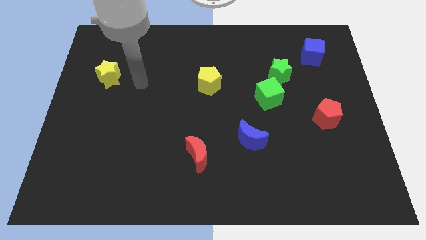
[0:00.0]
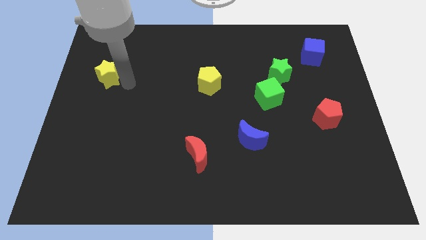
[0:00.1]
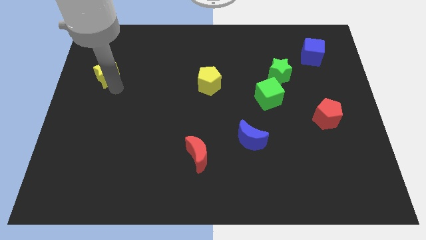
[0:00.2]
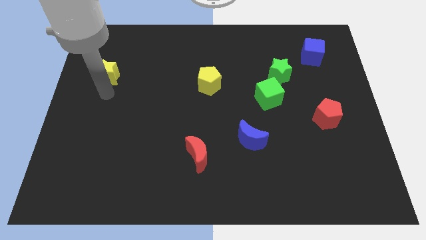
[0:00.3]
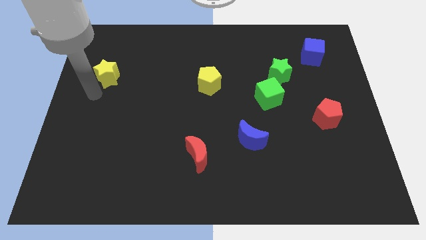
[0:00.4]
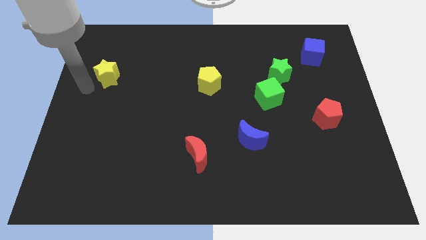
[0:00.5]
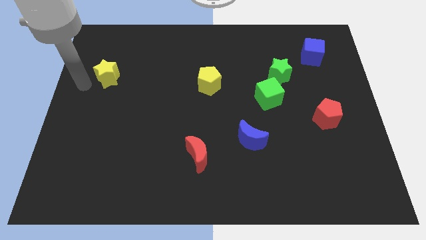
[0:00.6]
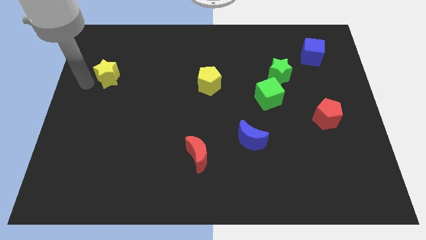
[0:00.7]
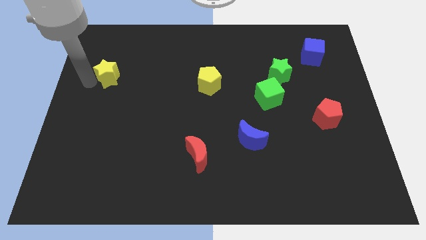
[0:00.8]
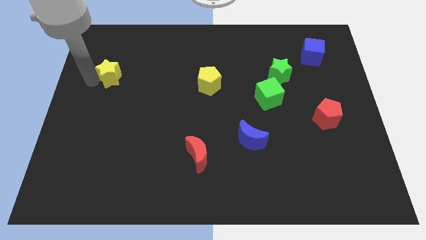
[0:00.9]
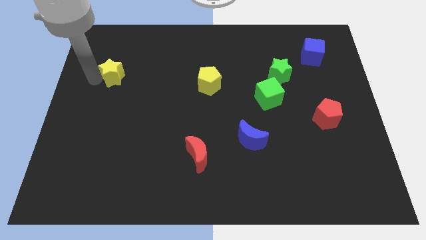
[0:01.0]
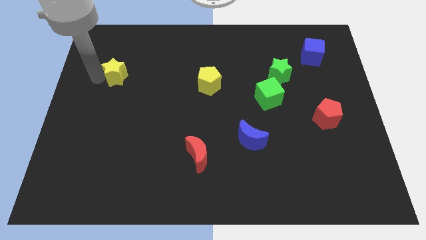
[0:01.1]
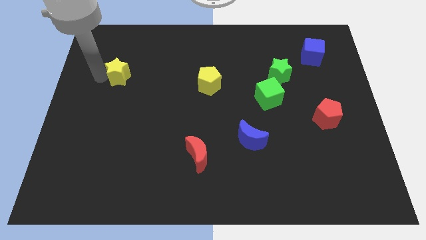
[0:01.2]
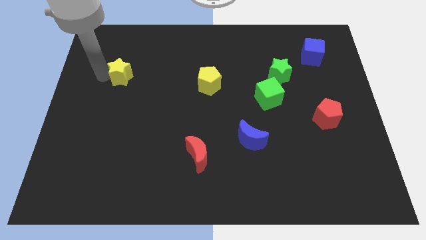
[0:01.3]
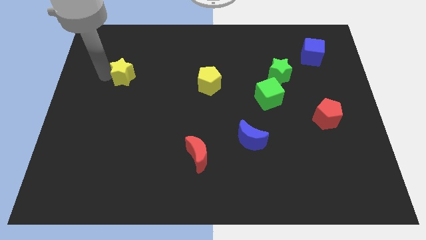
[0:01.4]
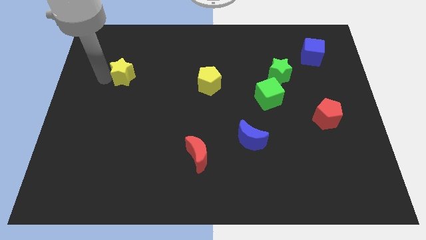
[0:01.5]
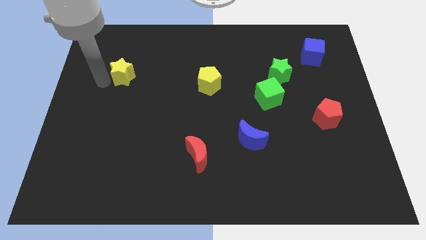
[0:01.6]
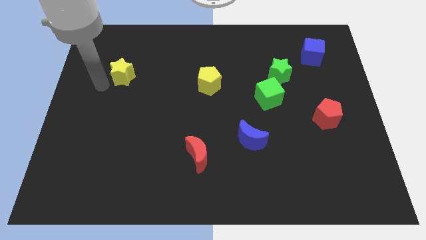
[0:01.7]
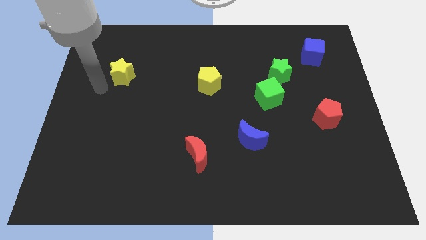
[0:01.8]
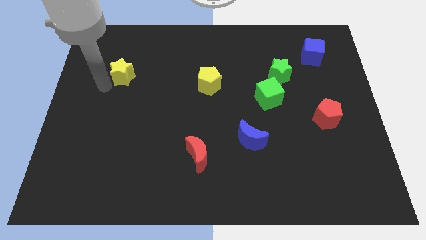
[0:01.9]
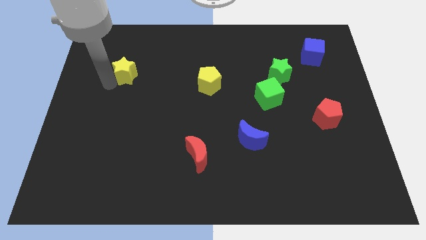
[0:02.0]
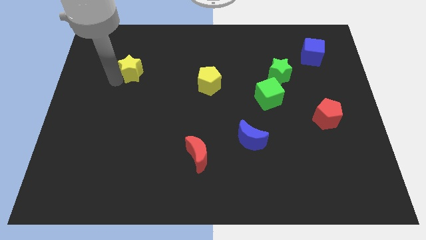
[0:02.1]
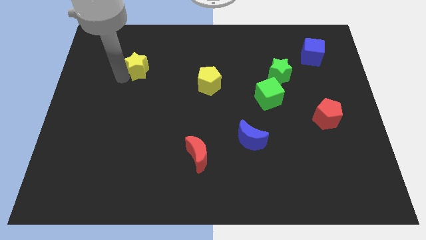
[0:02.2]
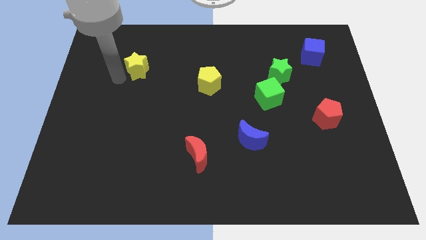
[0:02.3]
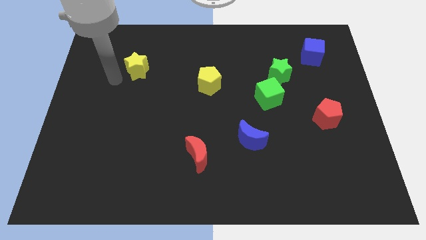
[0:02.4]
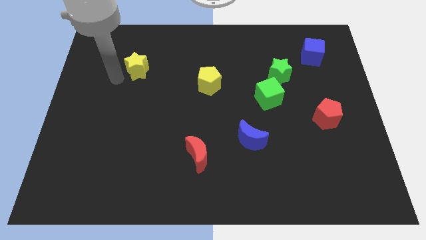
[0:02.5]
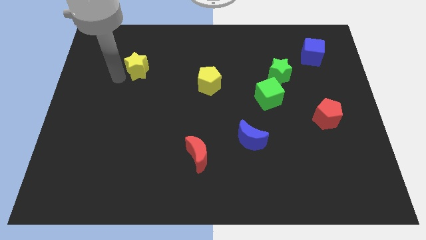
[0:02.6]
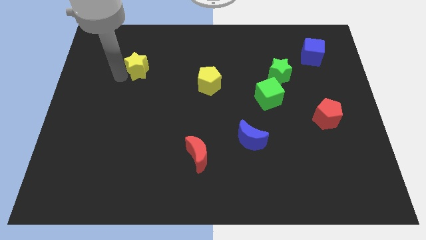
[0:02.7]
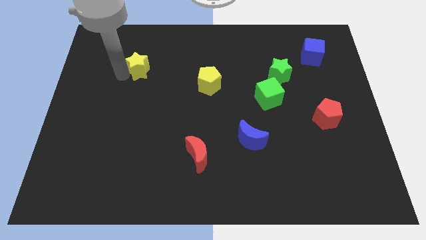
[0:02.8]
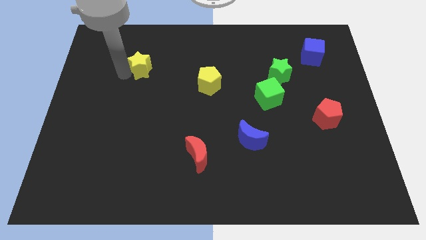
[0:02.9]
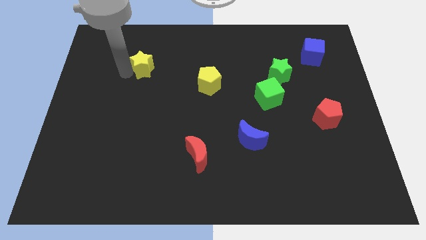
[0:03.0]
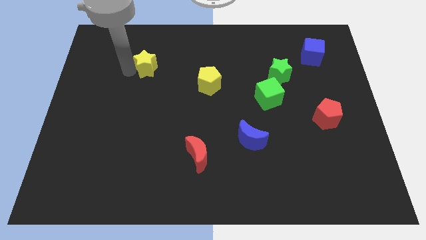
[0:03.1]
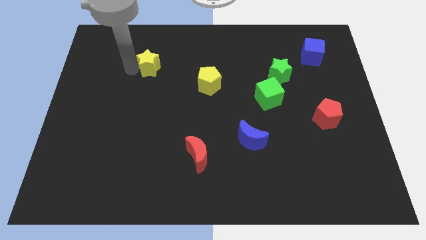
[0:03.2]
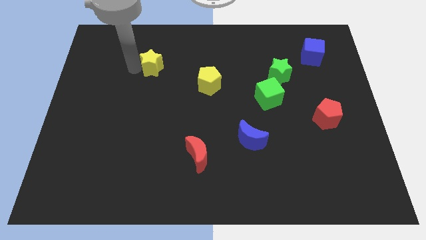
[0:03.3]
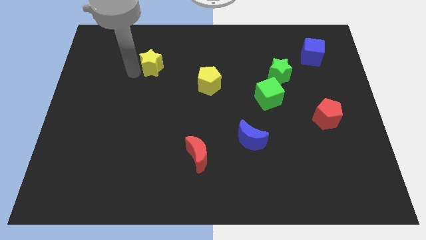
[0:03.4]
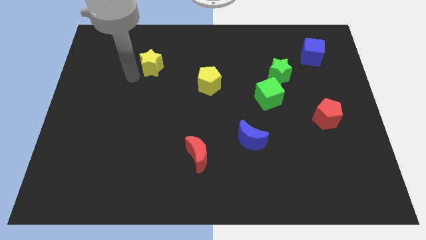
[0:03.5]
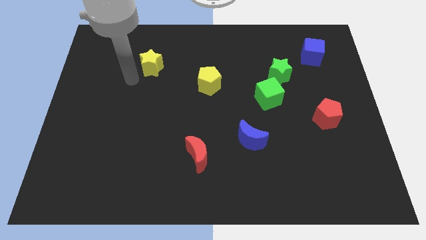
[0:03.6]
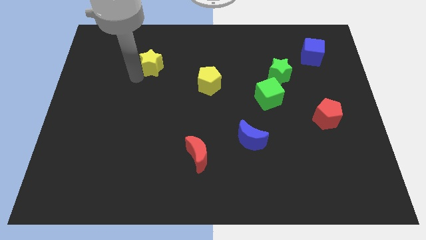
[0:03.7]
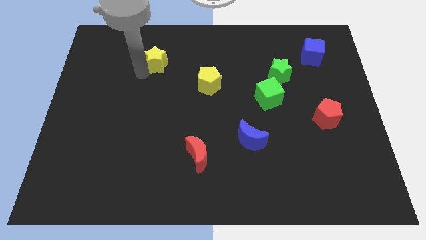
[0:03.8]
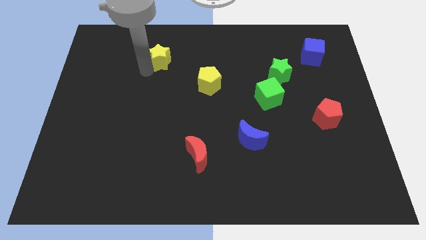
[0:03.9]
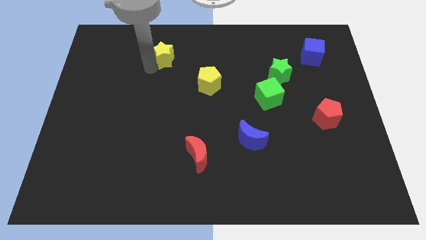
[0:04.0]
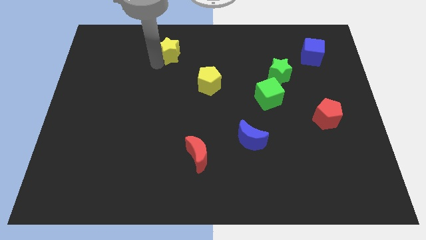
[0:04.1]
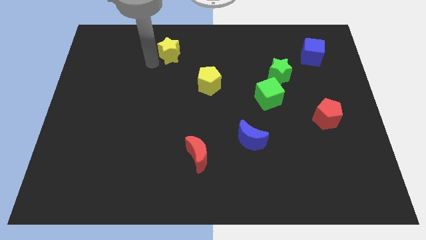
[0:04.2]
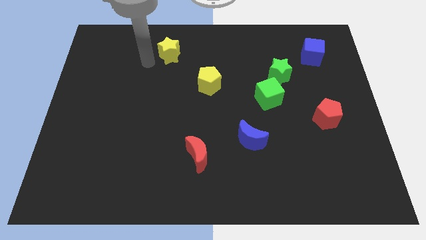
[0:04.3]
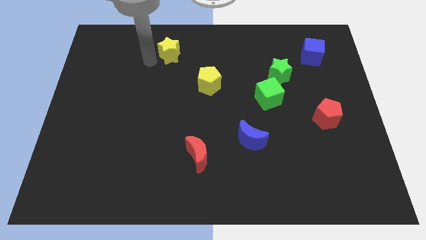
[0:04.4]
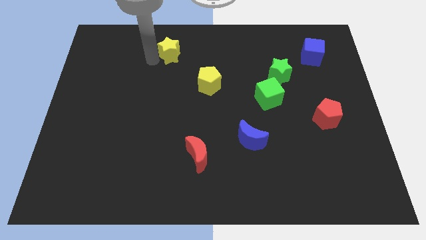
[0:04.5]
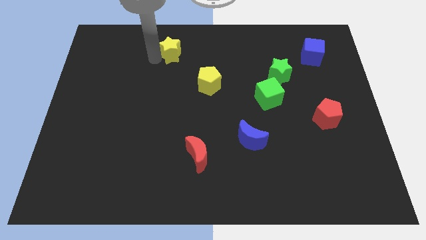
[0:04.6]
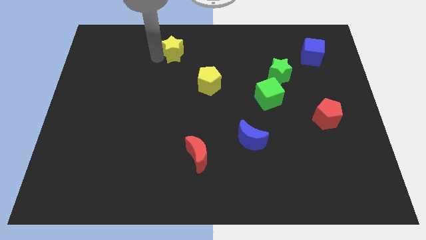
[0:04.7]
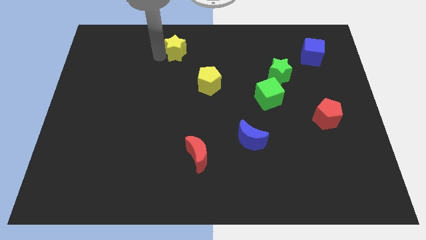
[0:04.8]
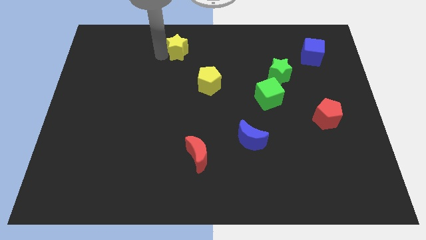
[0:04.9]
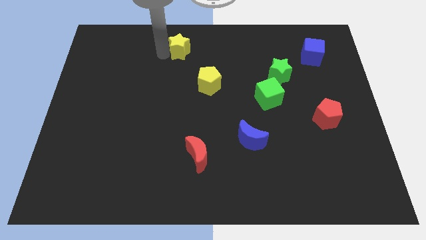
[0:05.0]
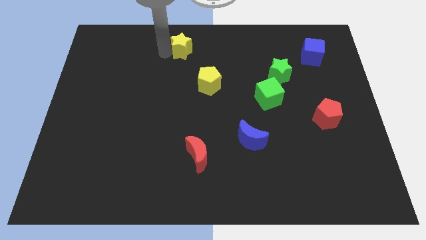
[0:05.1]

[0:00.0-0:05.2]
slide the yellow star to the towards your base
